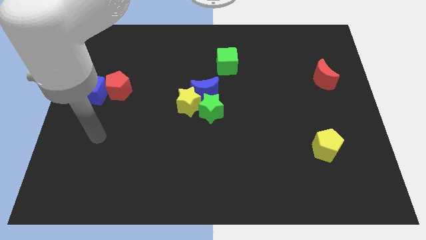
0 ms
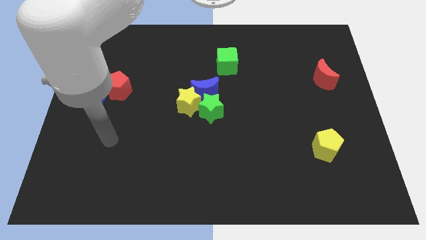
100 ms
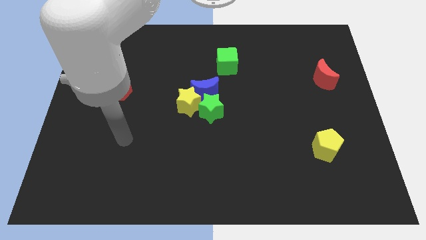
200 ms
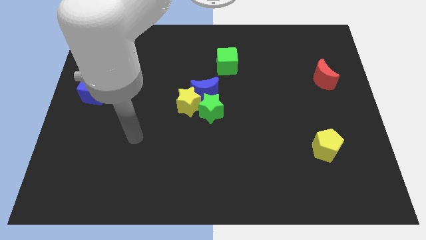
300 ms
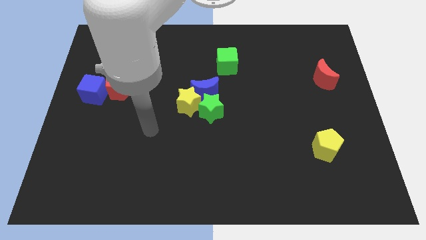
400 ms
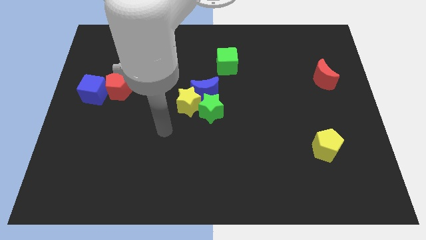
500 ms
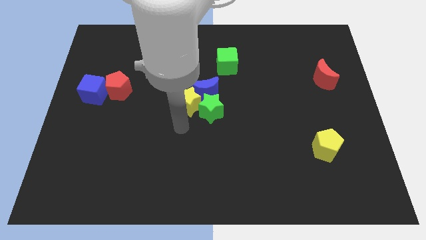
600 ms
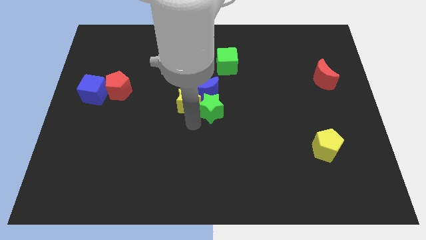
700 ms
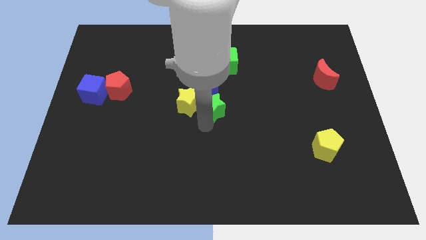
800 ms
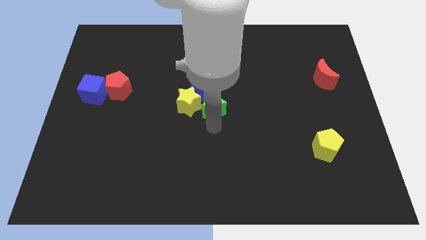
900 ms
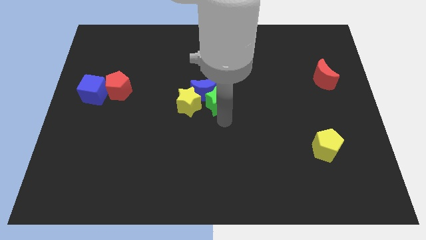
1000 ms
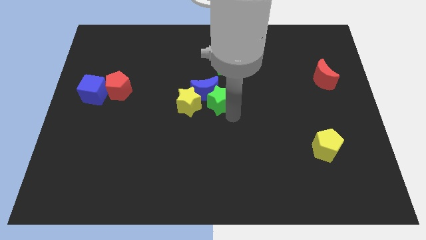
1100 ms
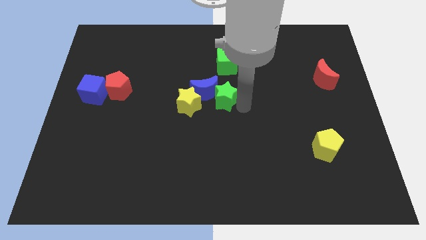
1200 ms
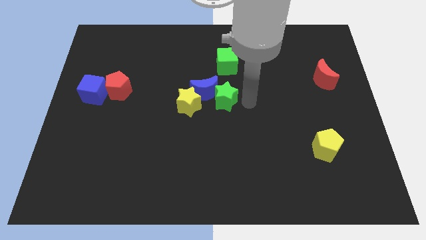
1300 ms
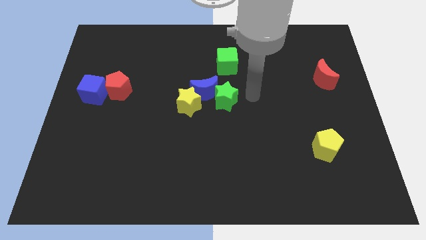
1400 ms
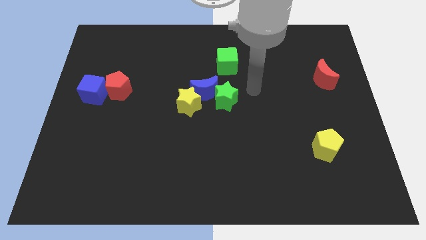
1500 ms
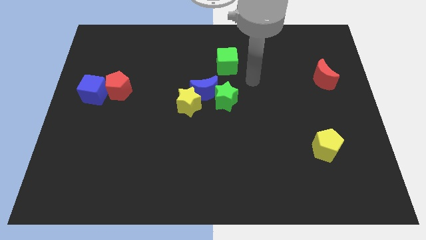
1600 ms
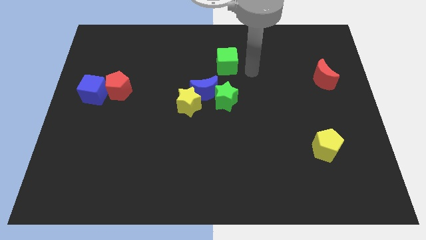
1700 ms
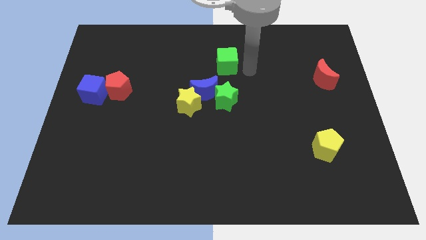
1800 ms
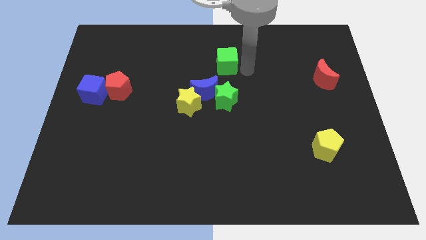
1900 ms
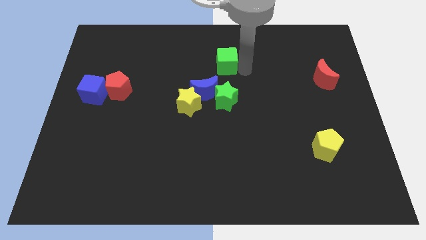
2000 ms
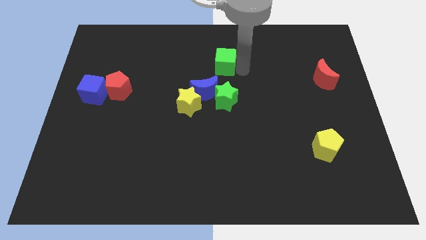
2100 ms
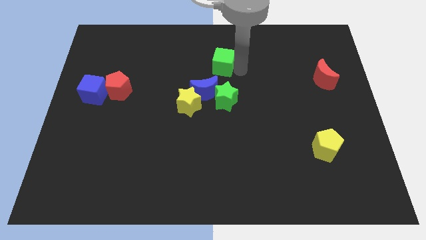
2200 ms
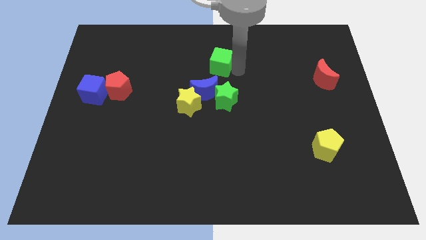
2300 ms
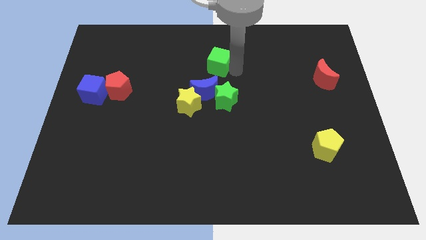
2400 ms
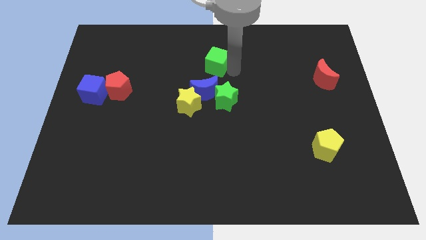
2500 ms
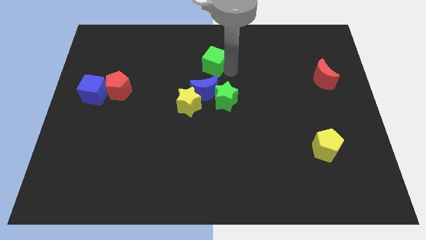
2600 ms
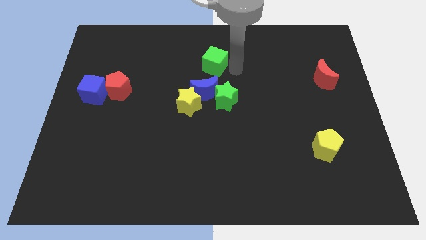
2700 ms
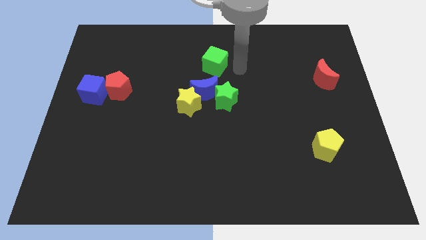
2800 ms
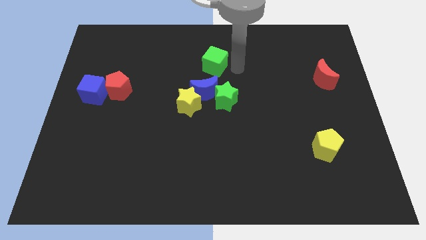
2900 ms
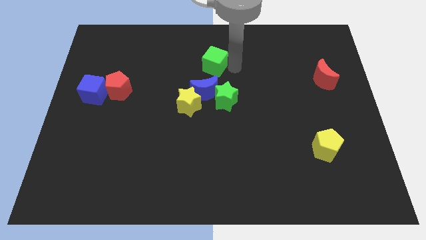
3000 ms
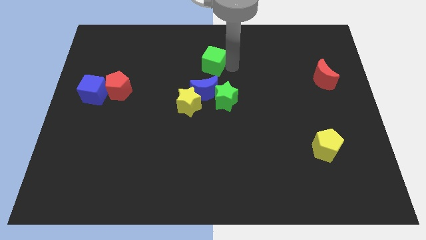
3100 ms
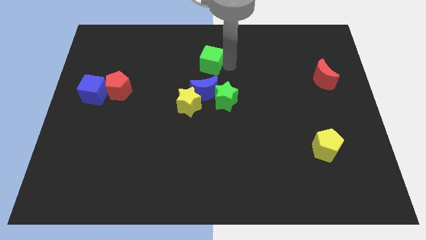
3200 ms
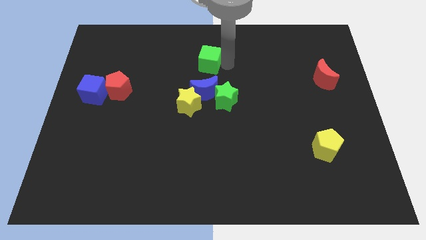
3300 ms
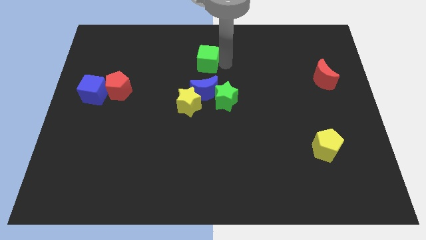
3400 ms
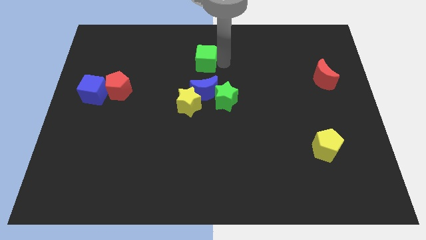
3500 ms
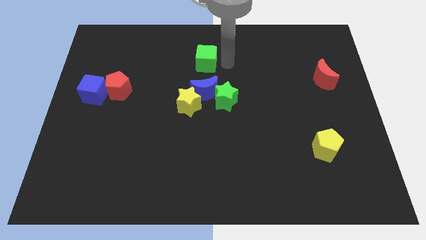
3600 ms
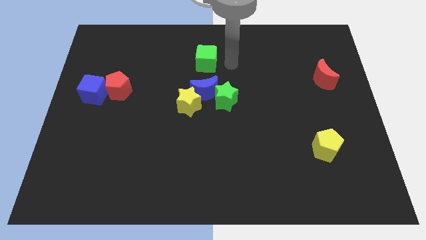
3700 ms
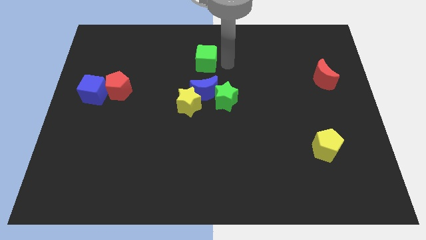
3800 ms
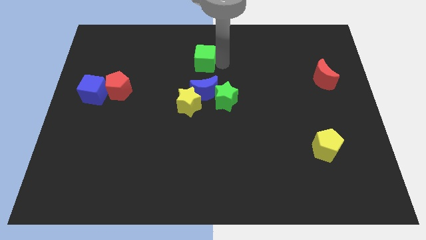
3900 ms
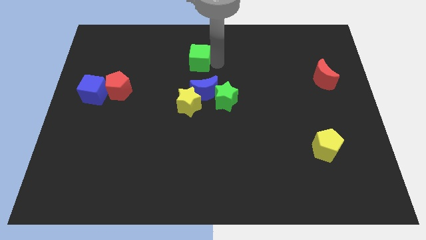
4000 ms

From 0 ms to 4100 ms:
slide the green cube slightly to the left

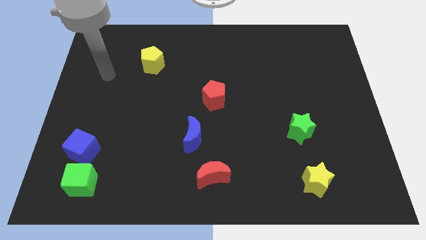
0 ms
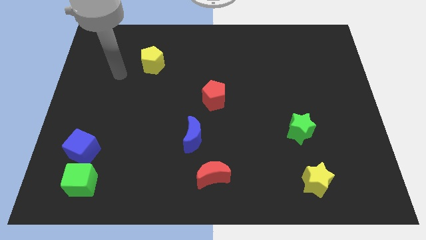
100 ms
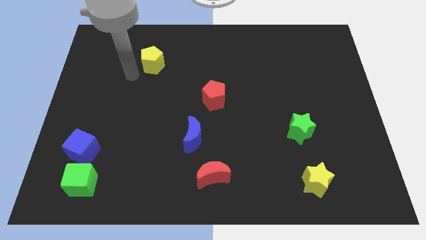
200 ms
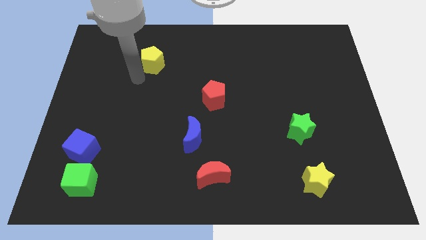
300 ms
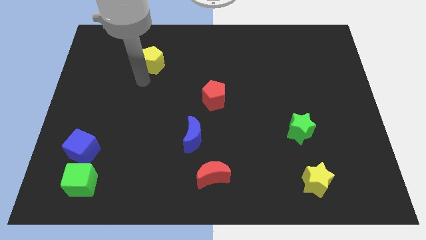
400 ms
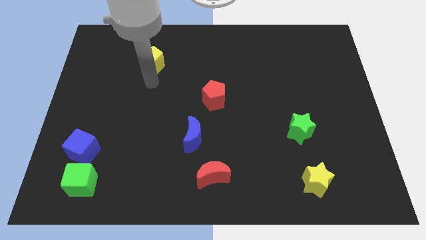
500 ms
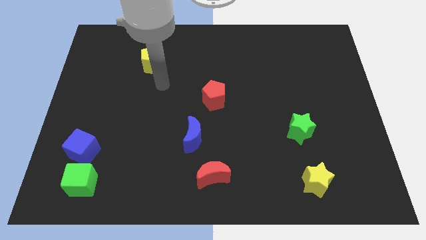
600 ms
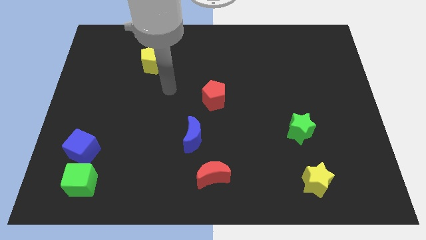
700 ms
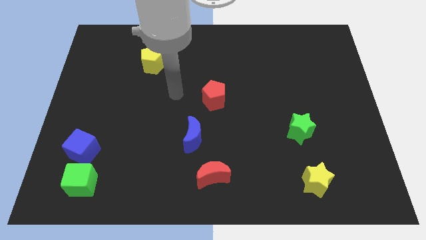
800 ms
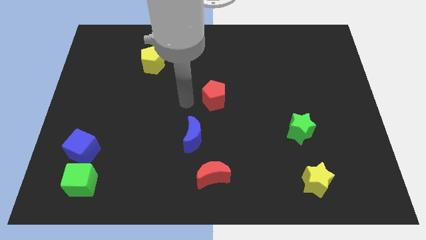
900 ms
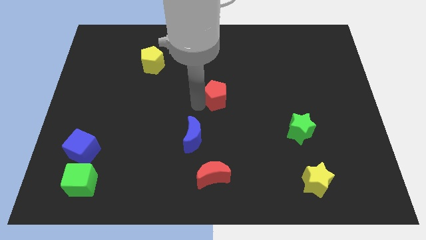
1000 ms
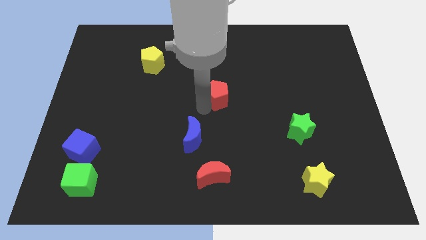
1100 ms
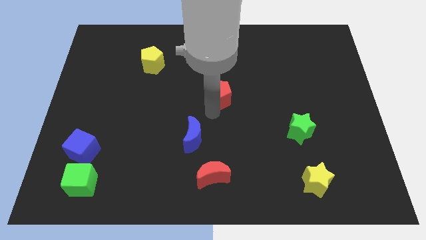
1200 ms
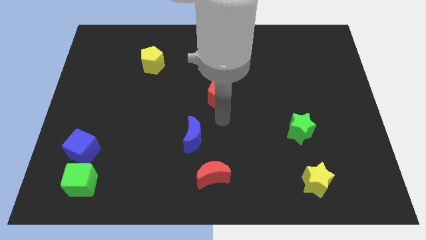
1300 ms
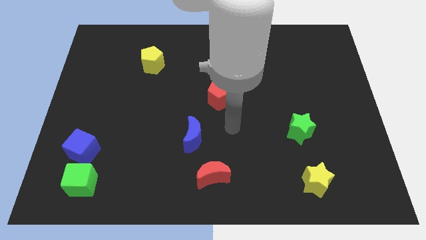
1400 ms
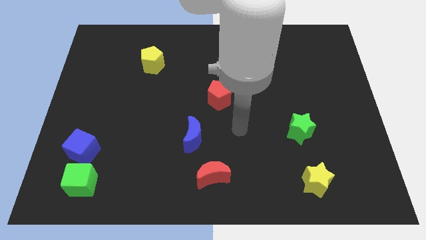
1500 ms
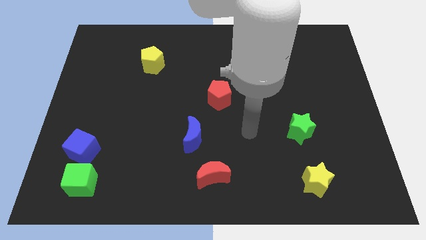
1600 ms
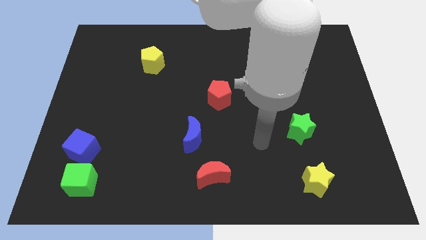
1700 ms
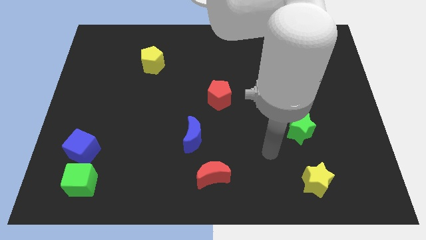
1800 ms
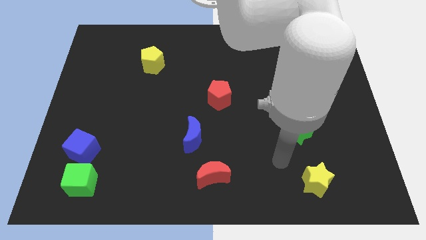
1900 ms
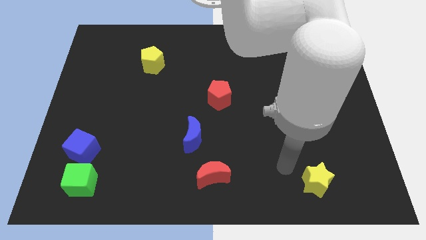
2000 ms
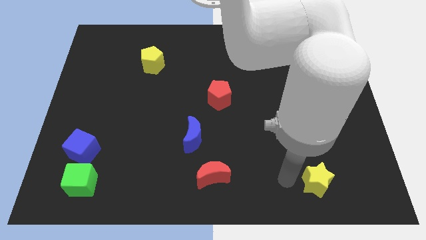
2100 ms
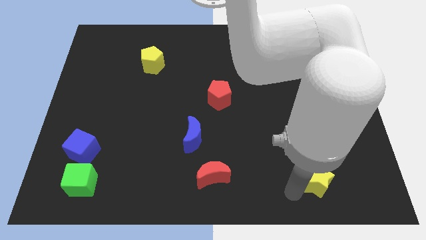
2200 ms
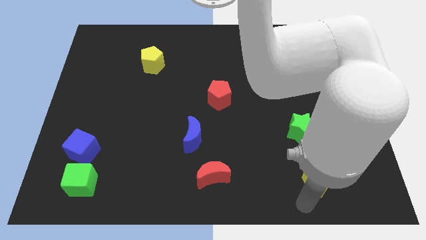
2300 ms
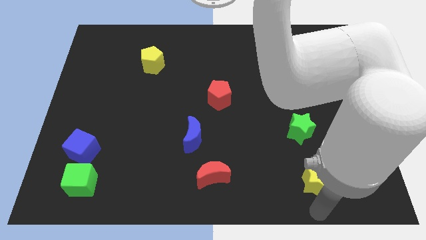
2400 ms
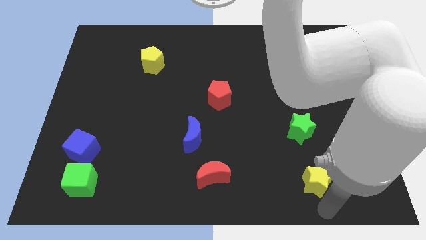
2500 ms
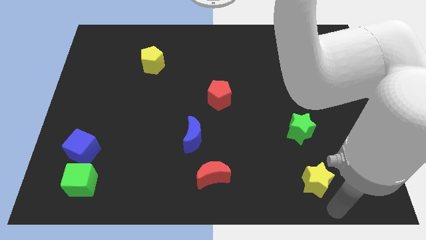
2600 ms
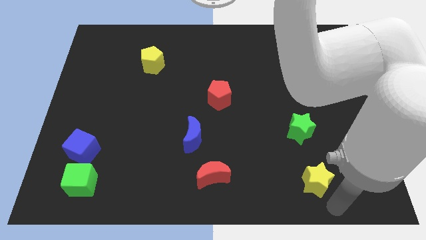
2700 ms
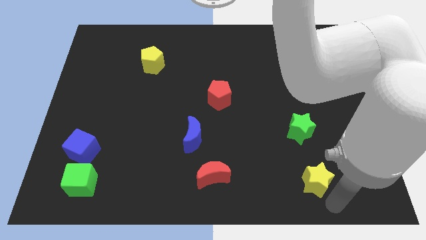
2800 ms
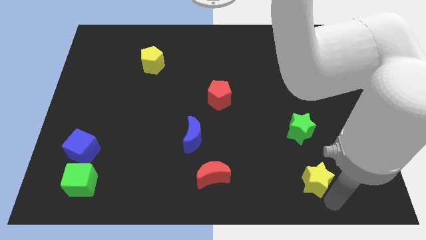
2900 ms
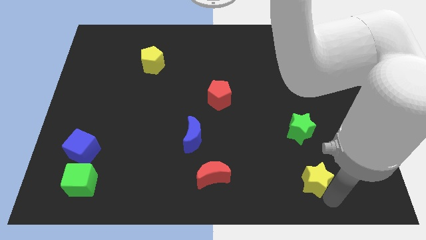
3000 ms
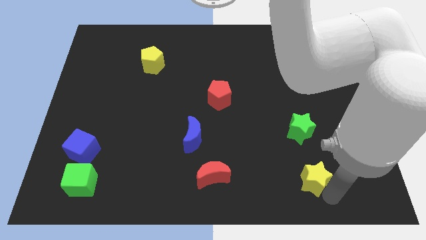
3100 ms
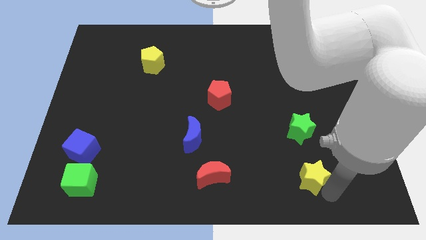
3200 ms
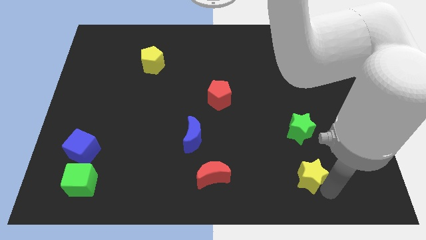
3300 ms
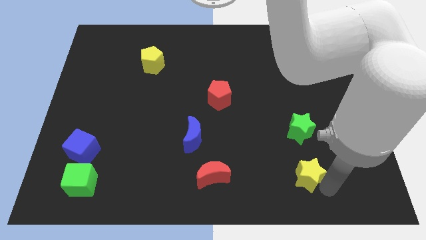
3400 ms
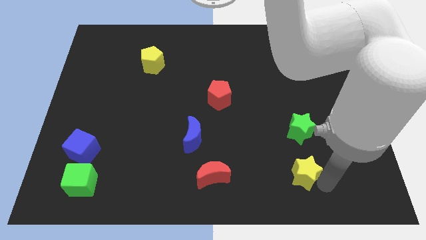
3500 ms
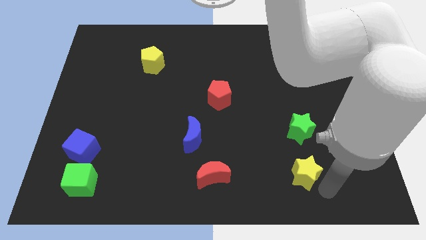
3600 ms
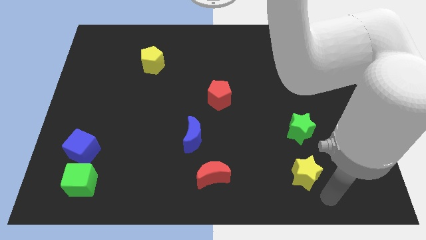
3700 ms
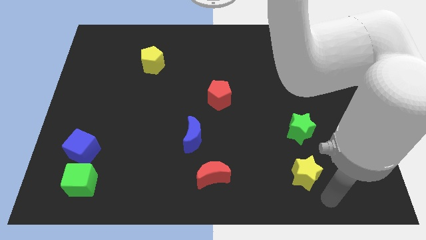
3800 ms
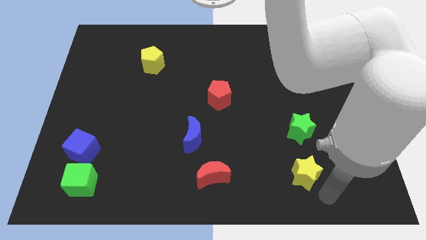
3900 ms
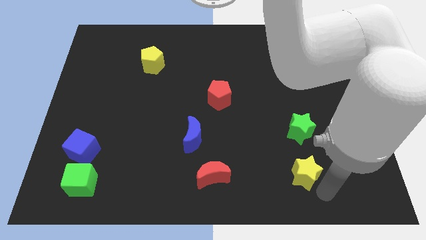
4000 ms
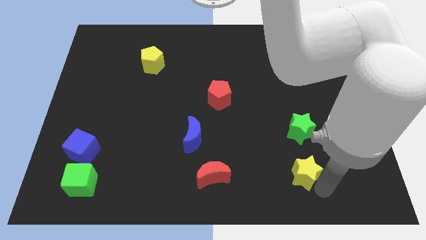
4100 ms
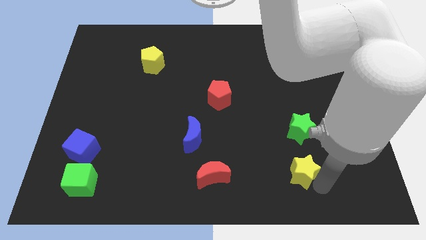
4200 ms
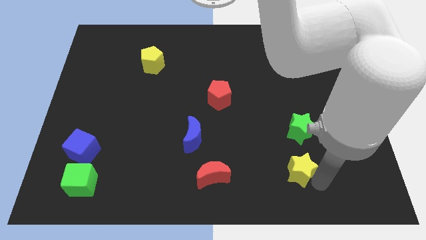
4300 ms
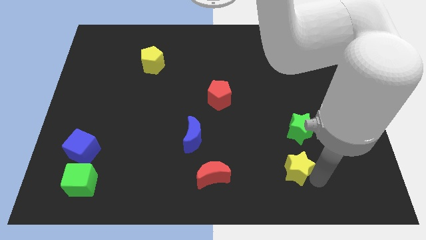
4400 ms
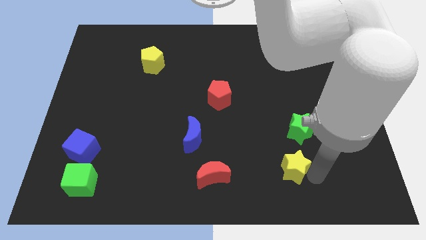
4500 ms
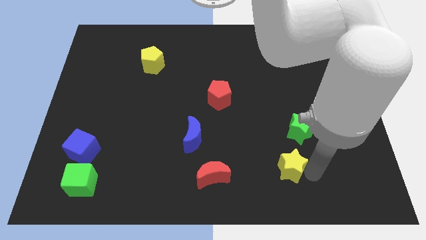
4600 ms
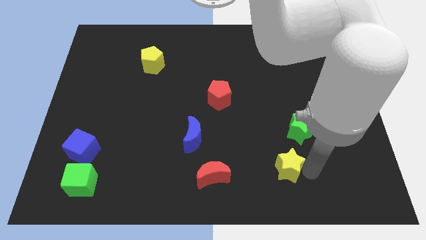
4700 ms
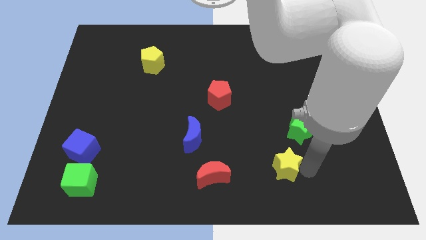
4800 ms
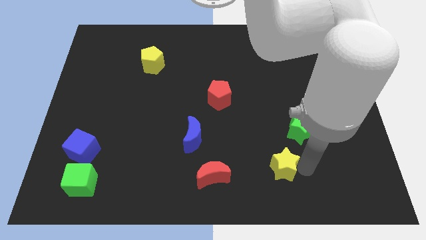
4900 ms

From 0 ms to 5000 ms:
move the yellow star up and to the left diagonally a little
